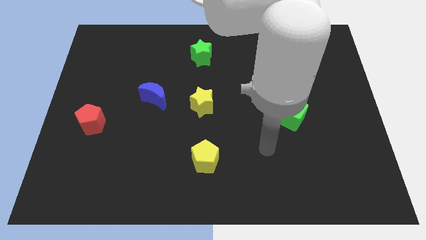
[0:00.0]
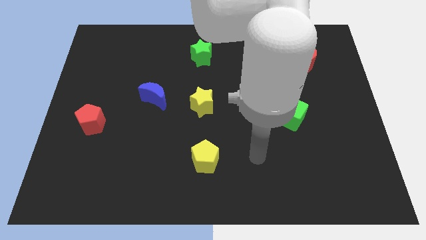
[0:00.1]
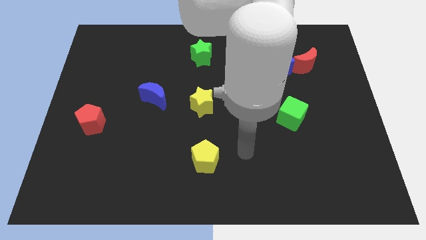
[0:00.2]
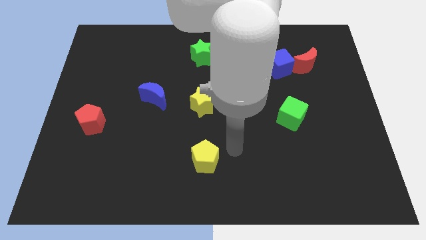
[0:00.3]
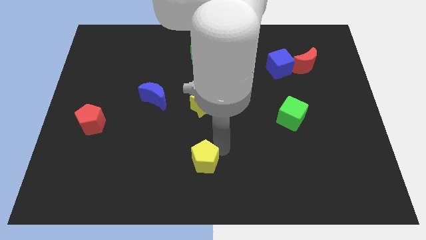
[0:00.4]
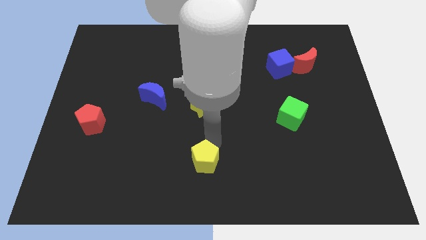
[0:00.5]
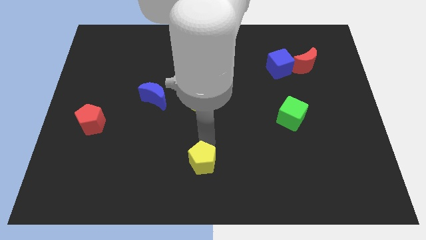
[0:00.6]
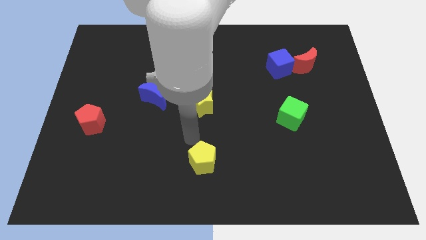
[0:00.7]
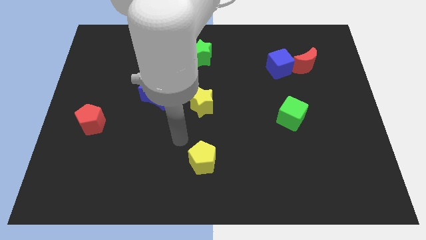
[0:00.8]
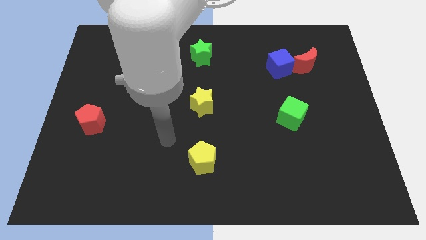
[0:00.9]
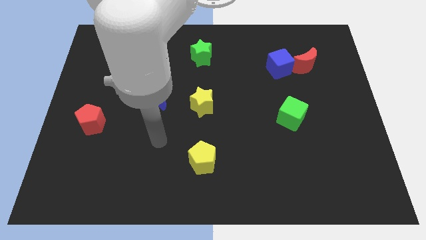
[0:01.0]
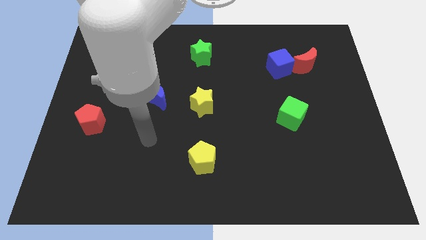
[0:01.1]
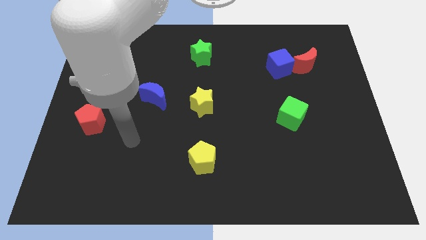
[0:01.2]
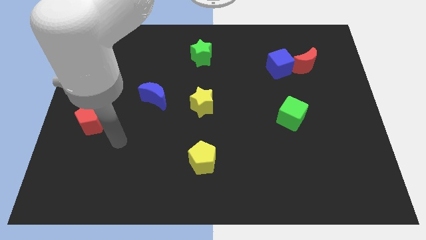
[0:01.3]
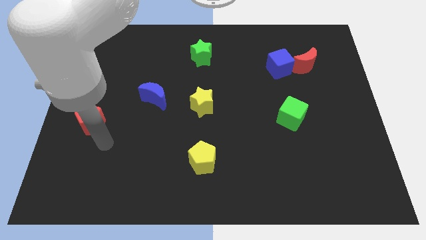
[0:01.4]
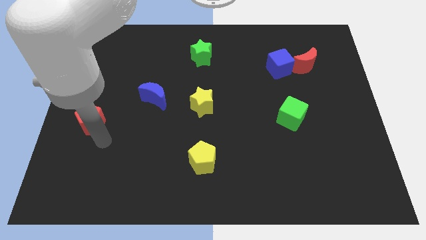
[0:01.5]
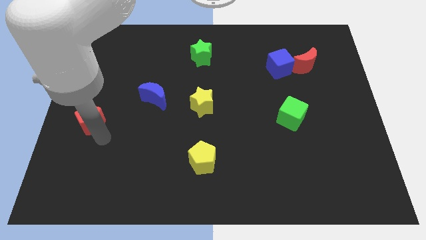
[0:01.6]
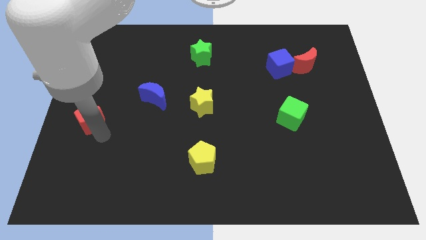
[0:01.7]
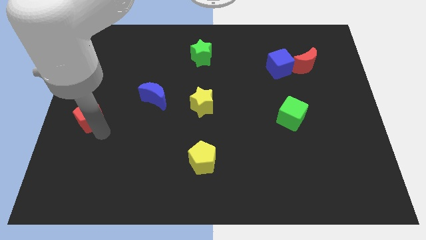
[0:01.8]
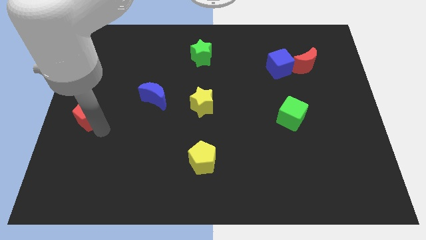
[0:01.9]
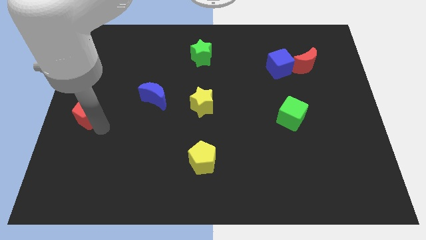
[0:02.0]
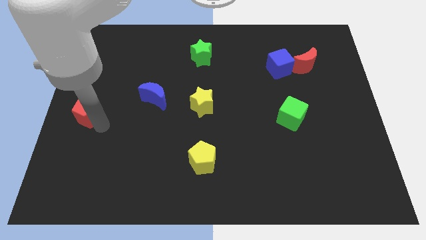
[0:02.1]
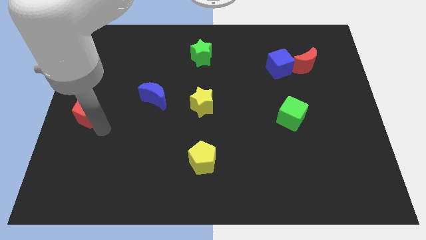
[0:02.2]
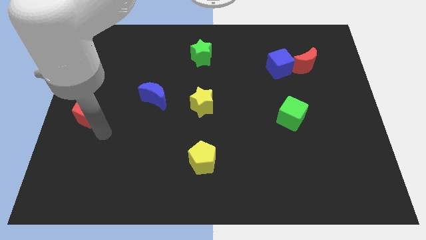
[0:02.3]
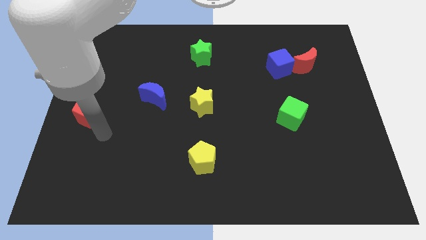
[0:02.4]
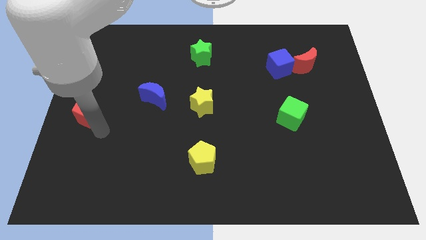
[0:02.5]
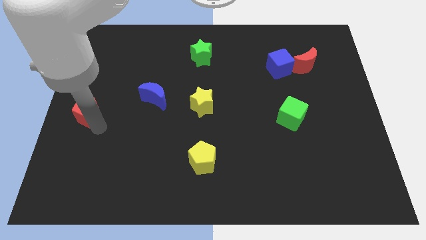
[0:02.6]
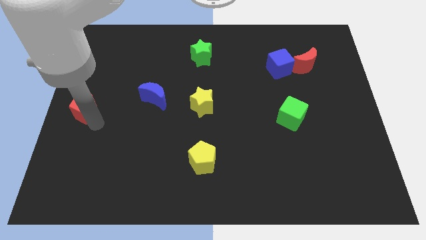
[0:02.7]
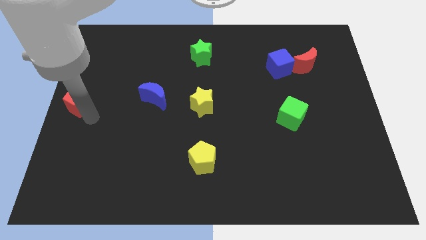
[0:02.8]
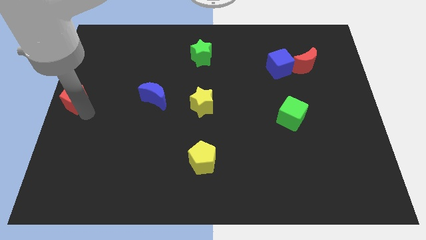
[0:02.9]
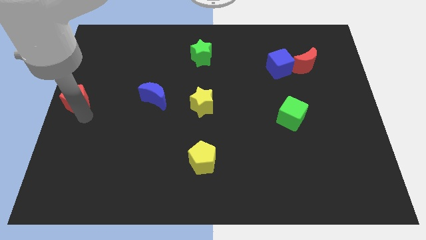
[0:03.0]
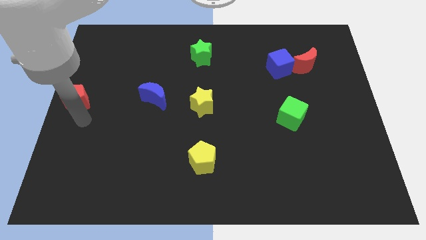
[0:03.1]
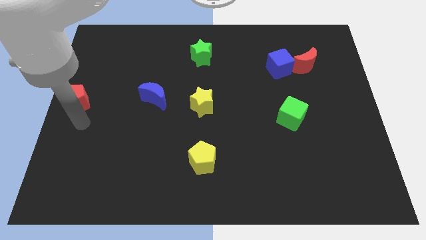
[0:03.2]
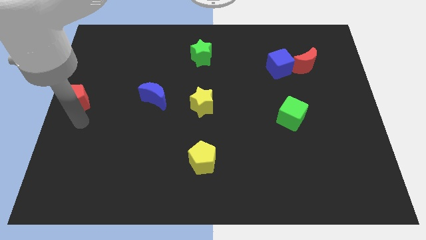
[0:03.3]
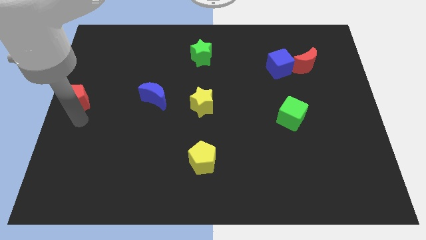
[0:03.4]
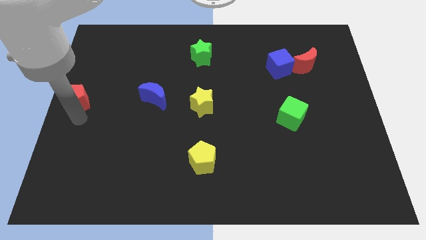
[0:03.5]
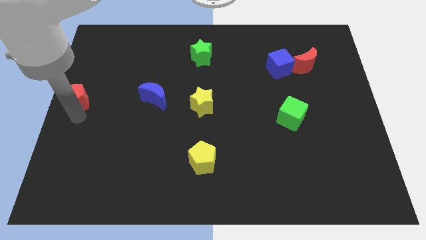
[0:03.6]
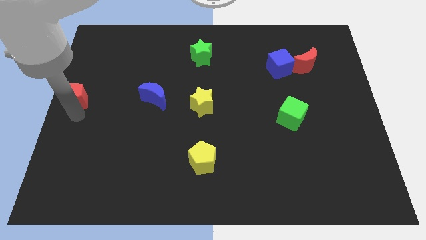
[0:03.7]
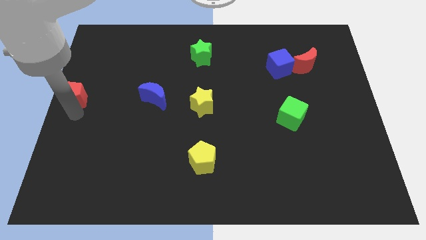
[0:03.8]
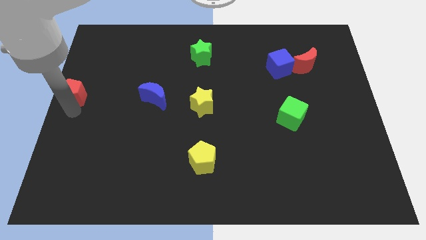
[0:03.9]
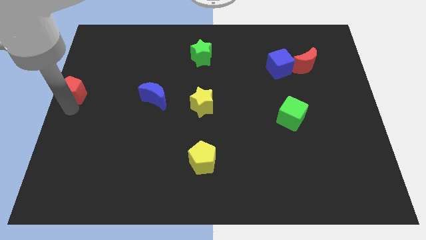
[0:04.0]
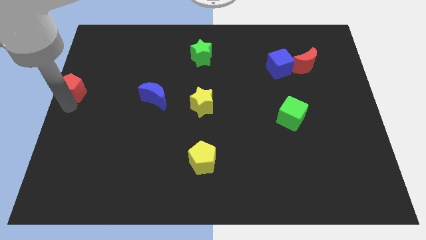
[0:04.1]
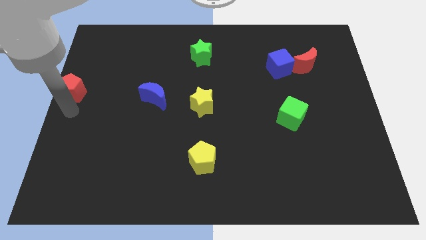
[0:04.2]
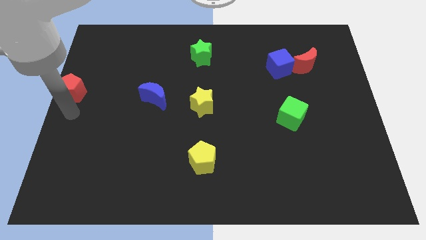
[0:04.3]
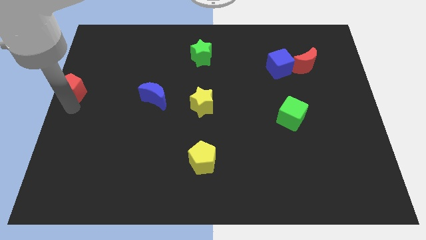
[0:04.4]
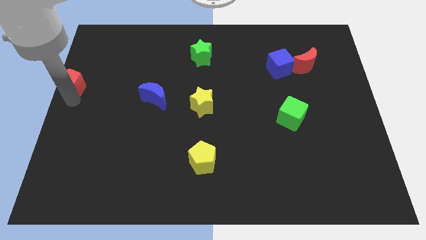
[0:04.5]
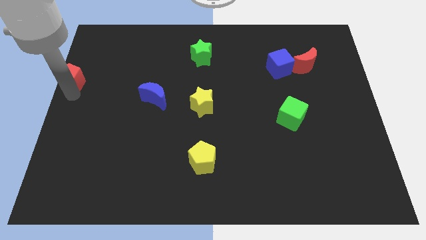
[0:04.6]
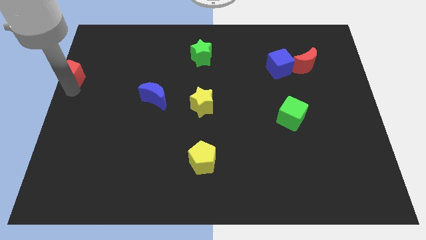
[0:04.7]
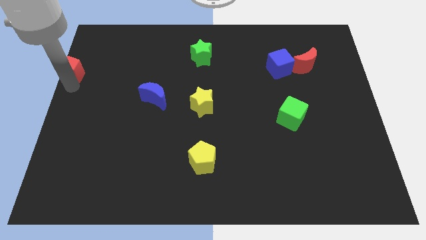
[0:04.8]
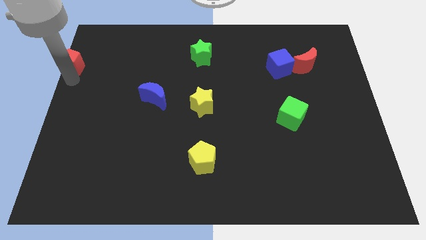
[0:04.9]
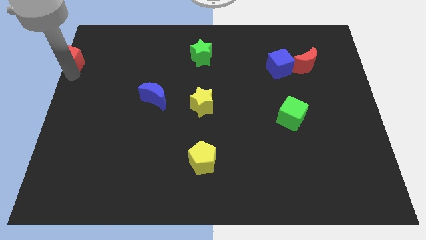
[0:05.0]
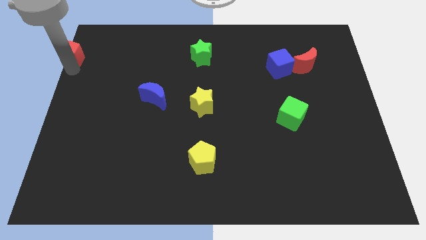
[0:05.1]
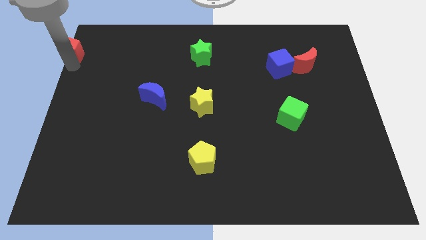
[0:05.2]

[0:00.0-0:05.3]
push the red pentagon to the top left corner
